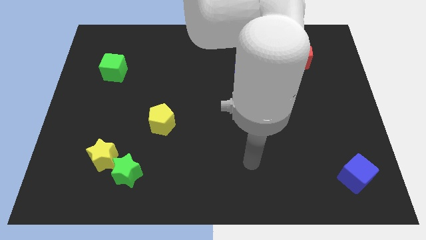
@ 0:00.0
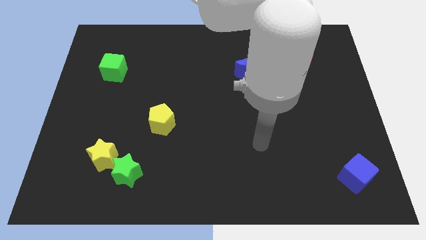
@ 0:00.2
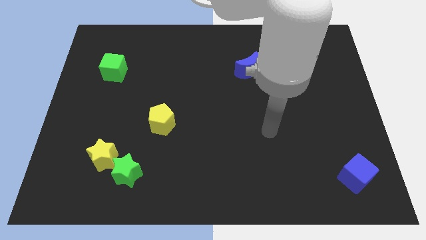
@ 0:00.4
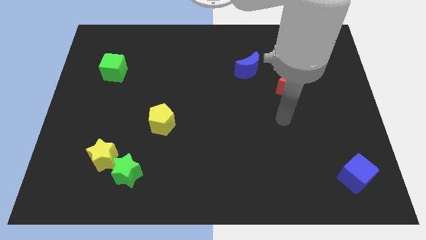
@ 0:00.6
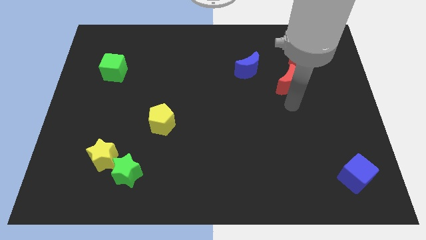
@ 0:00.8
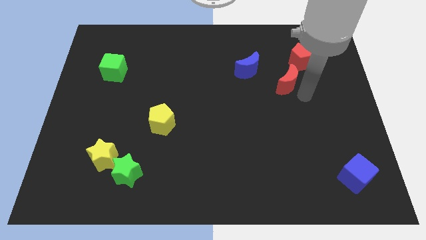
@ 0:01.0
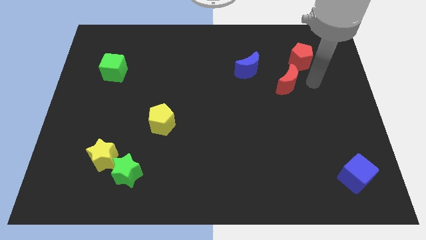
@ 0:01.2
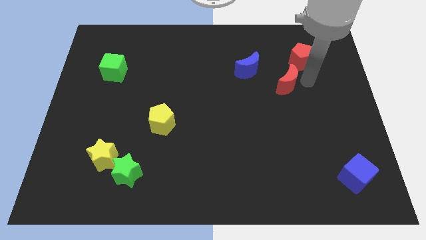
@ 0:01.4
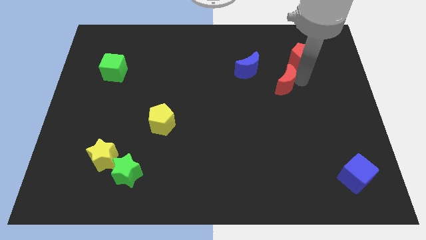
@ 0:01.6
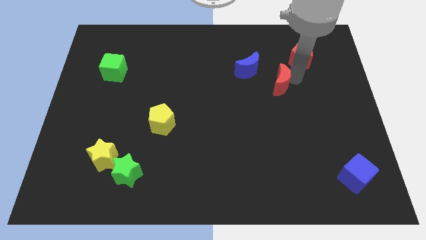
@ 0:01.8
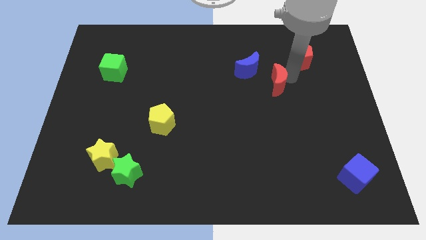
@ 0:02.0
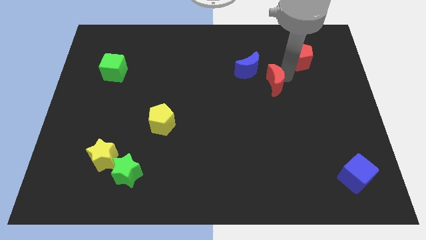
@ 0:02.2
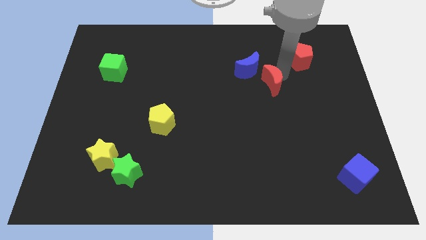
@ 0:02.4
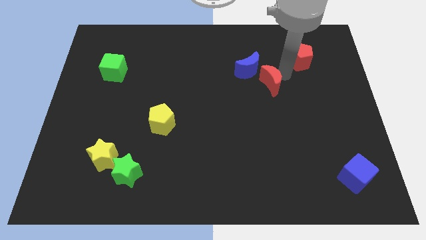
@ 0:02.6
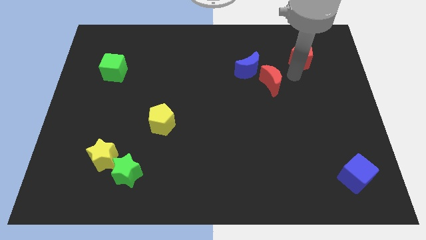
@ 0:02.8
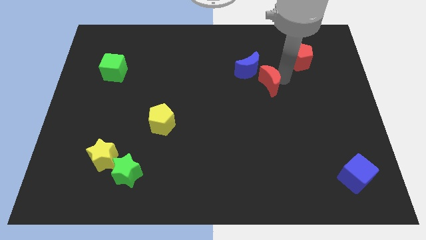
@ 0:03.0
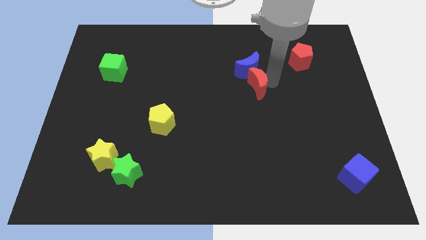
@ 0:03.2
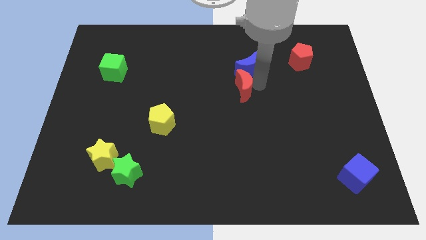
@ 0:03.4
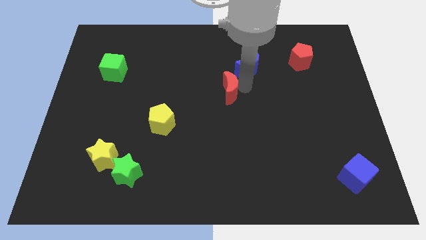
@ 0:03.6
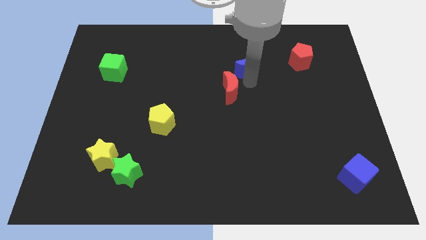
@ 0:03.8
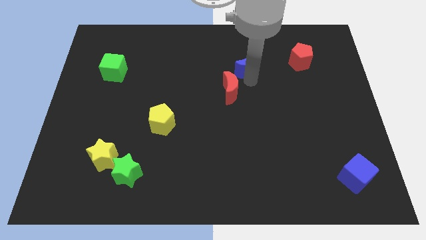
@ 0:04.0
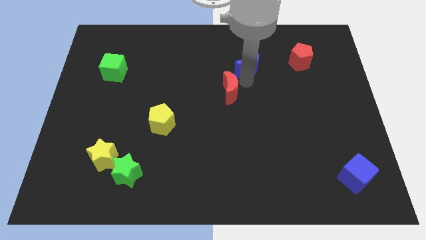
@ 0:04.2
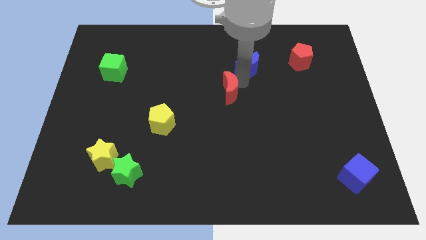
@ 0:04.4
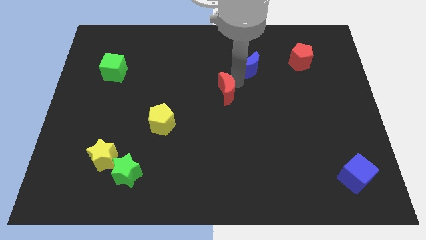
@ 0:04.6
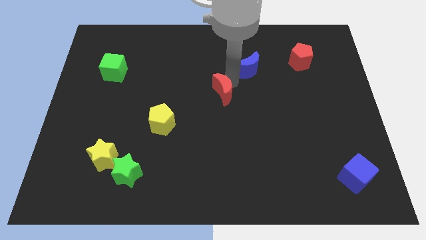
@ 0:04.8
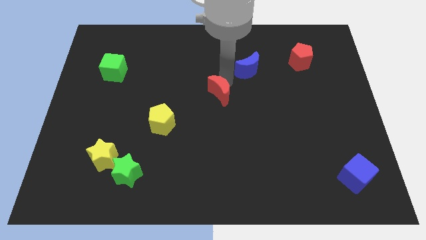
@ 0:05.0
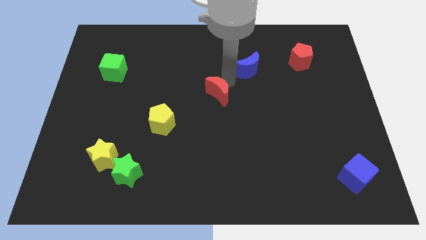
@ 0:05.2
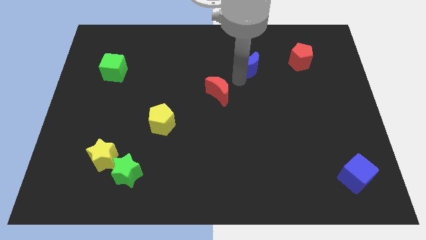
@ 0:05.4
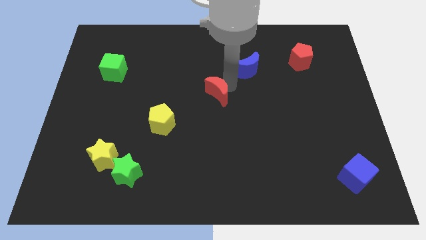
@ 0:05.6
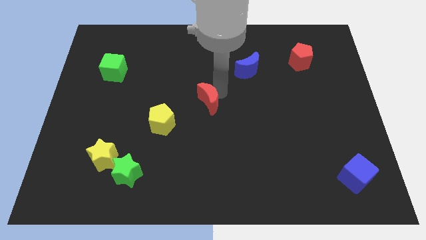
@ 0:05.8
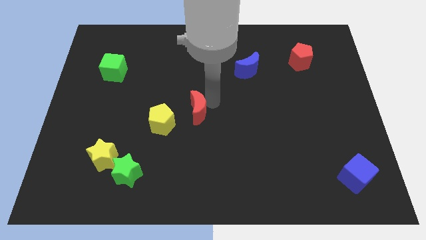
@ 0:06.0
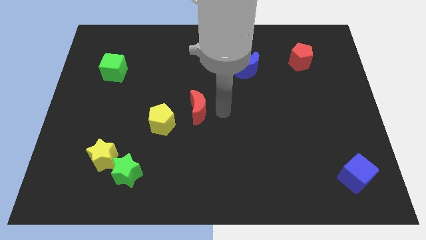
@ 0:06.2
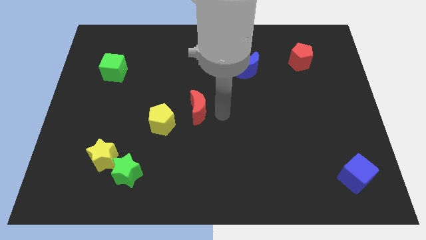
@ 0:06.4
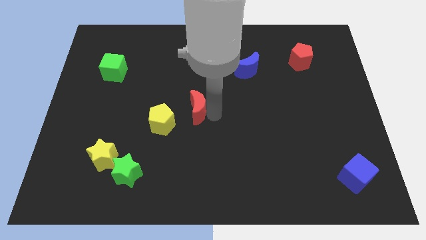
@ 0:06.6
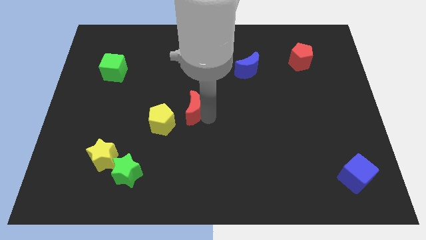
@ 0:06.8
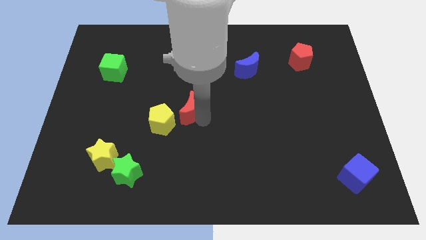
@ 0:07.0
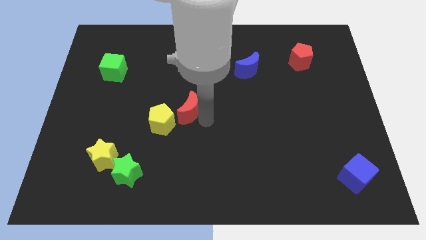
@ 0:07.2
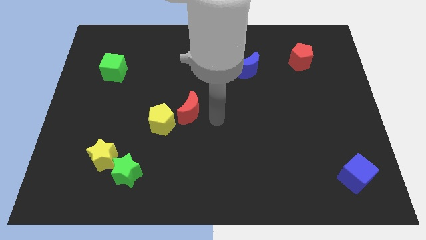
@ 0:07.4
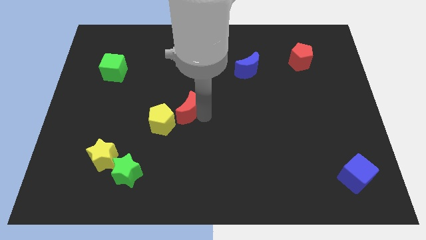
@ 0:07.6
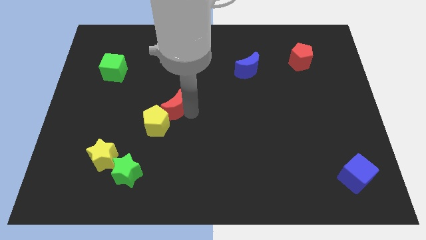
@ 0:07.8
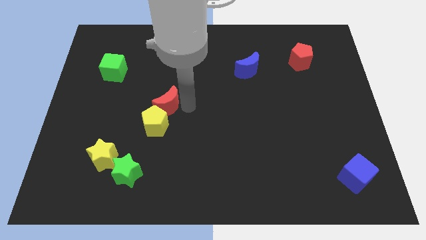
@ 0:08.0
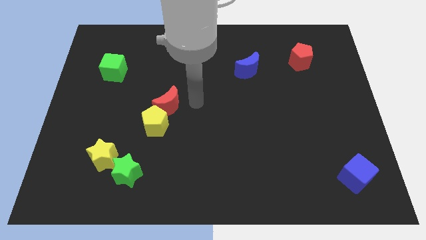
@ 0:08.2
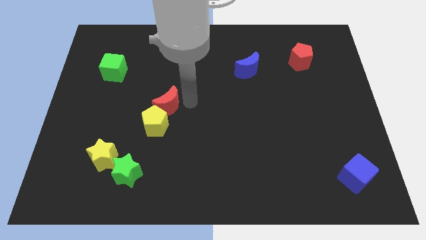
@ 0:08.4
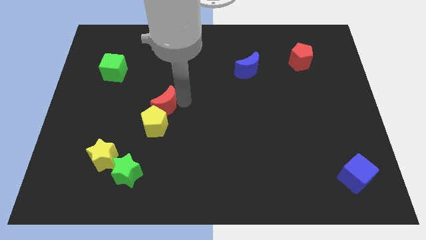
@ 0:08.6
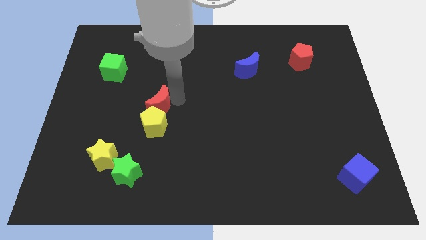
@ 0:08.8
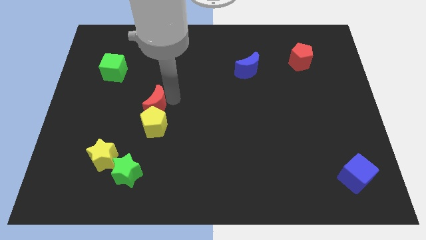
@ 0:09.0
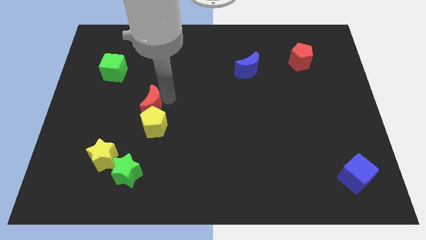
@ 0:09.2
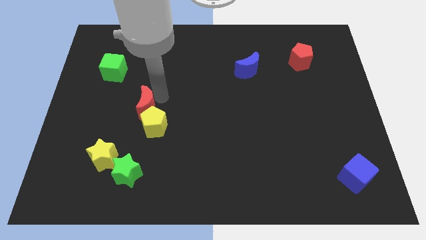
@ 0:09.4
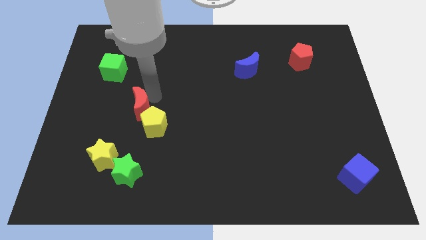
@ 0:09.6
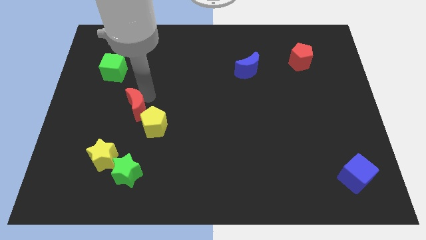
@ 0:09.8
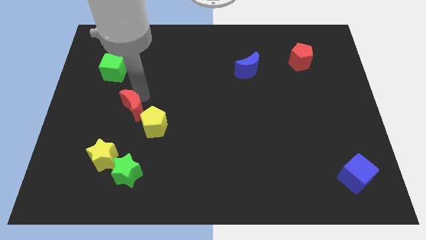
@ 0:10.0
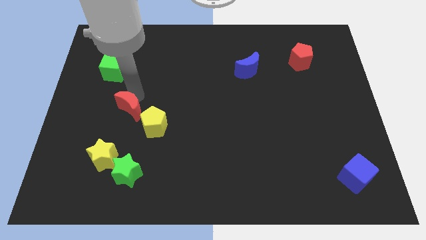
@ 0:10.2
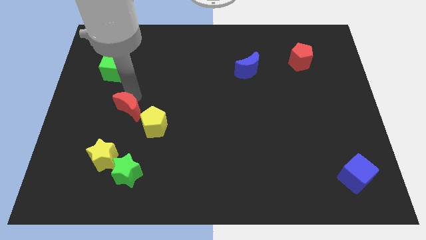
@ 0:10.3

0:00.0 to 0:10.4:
put the red moon just left of the yellow pentagon

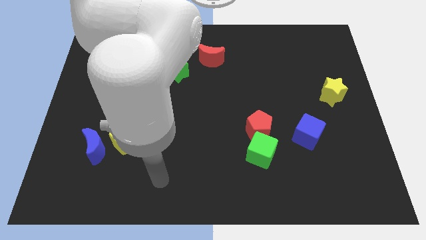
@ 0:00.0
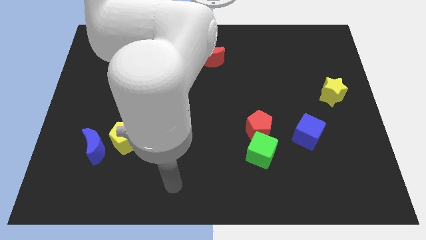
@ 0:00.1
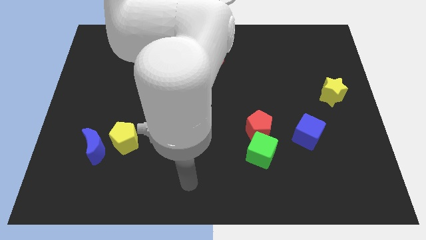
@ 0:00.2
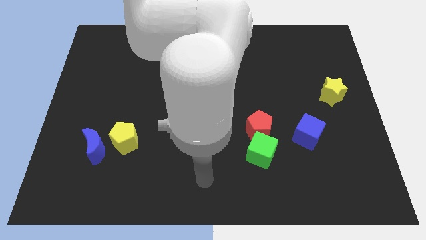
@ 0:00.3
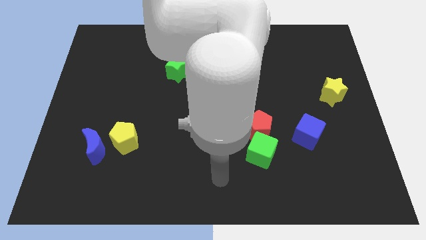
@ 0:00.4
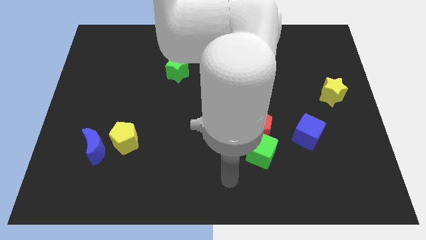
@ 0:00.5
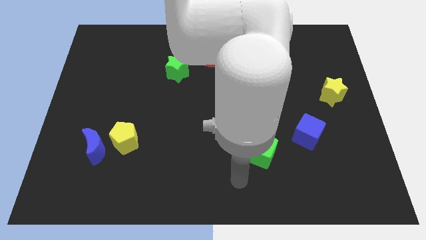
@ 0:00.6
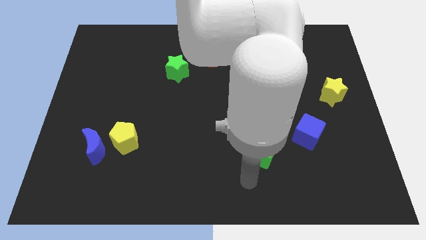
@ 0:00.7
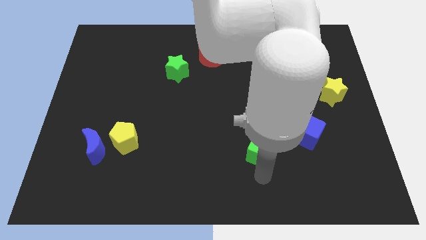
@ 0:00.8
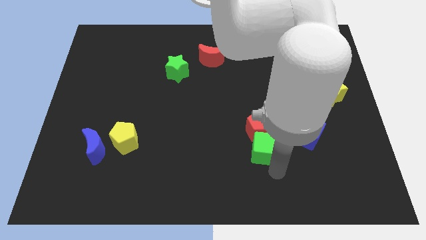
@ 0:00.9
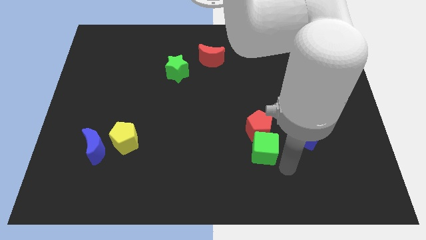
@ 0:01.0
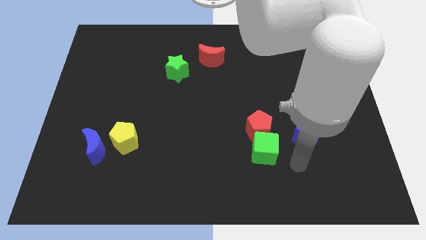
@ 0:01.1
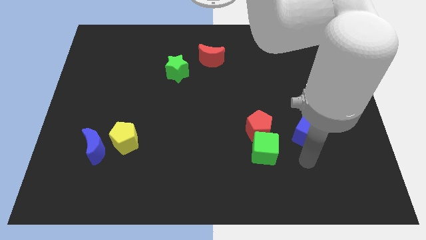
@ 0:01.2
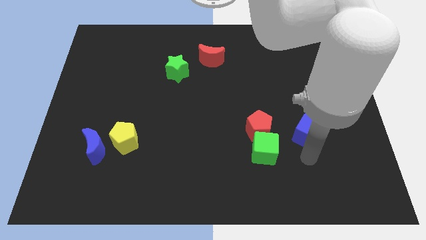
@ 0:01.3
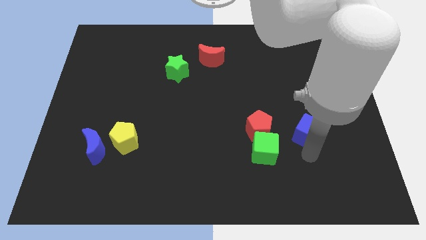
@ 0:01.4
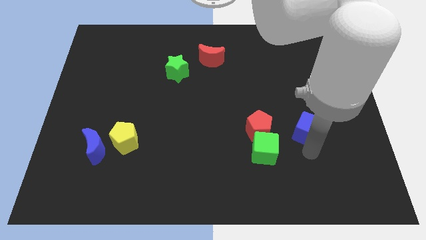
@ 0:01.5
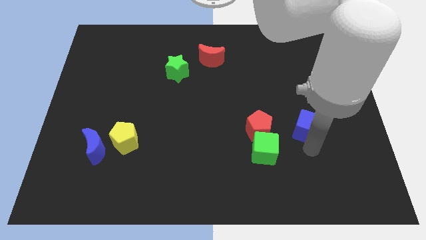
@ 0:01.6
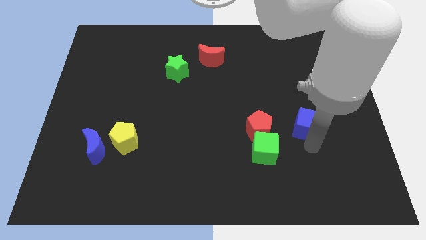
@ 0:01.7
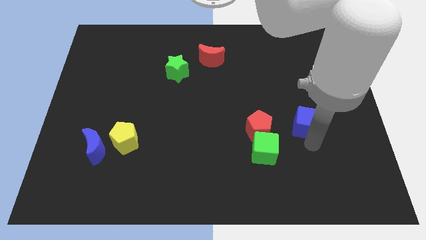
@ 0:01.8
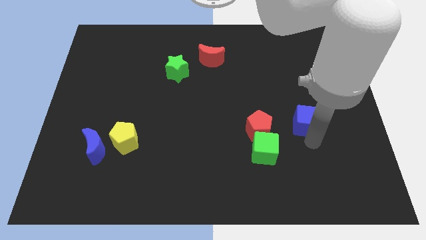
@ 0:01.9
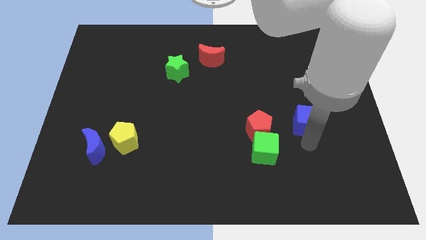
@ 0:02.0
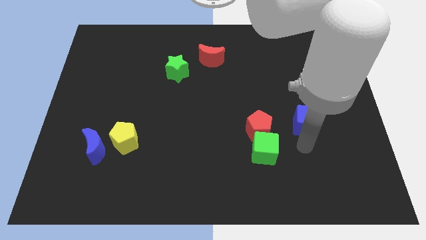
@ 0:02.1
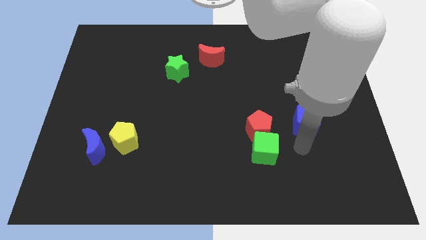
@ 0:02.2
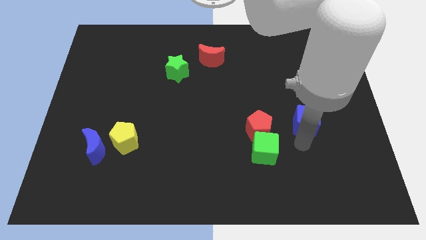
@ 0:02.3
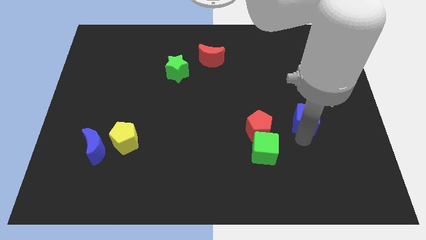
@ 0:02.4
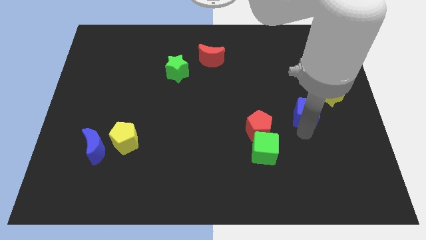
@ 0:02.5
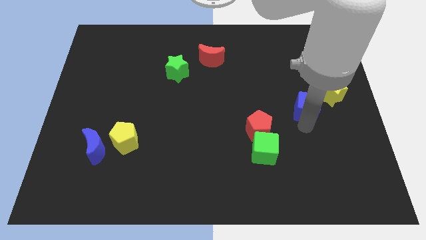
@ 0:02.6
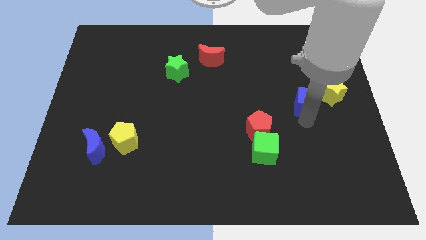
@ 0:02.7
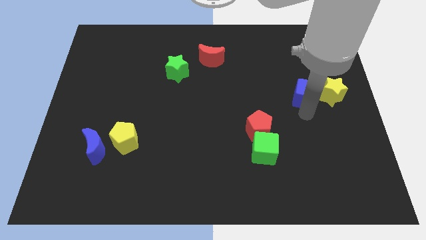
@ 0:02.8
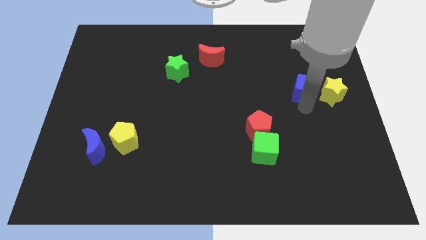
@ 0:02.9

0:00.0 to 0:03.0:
put the blue cube diagonally up and to the left of the yellow star
